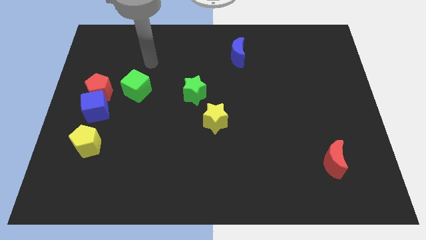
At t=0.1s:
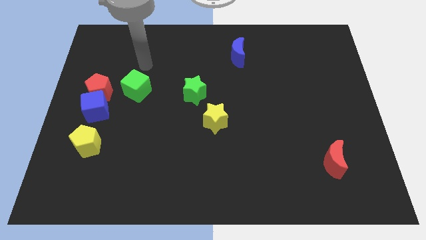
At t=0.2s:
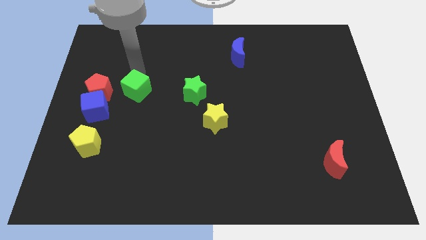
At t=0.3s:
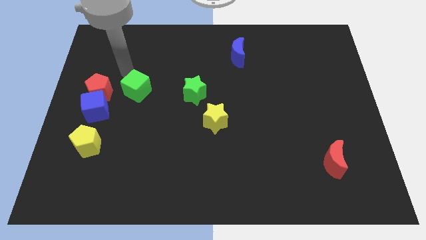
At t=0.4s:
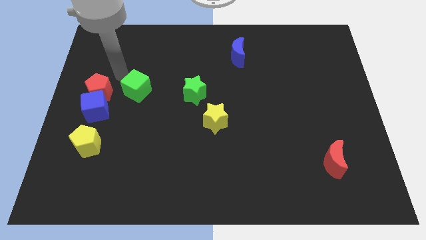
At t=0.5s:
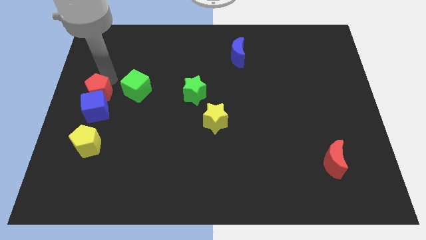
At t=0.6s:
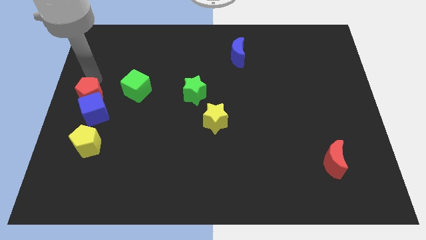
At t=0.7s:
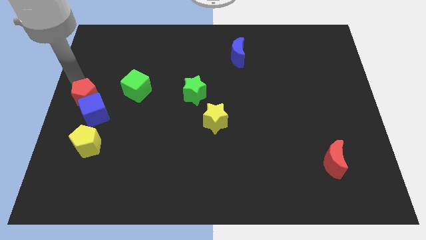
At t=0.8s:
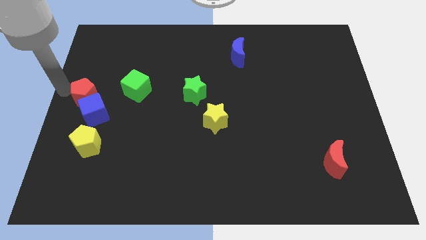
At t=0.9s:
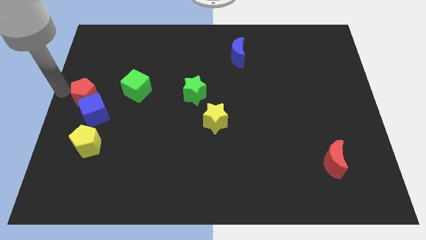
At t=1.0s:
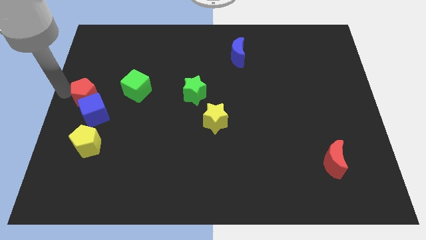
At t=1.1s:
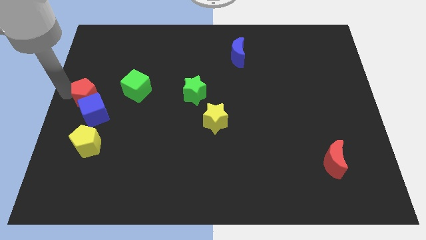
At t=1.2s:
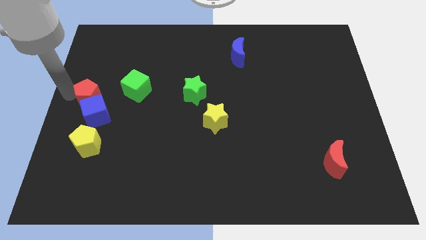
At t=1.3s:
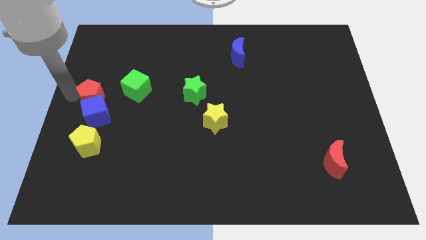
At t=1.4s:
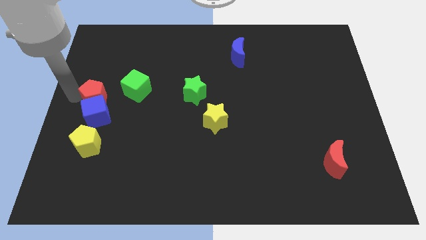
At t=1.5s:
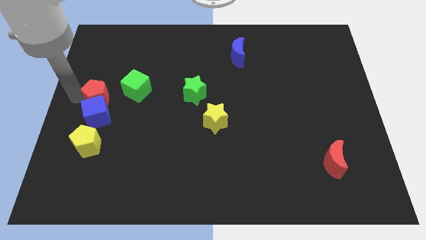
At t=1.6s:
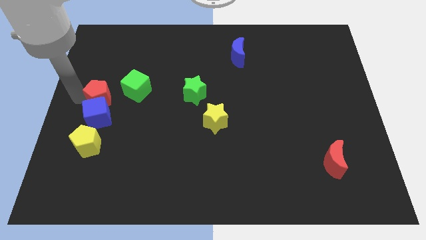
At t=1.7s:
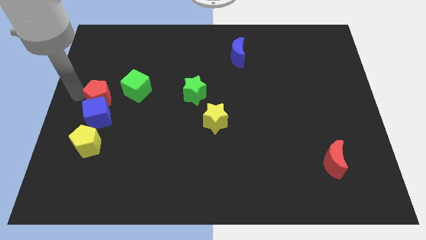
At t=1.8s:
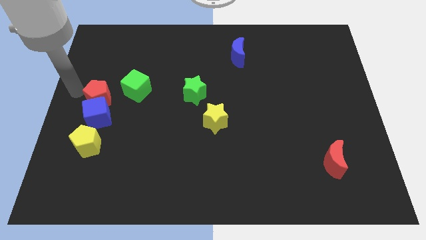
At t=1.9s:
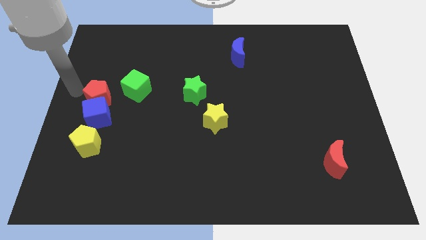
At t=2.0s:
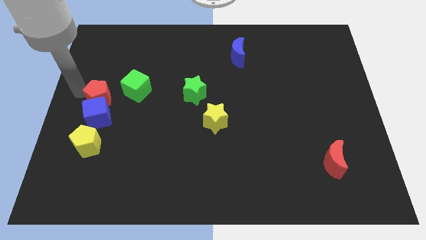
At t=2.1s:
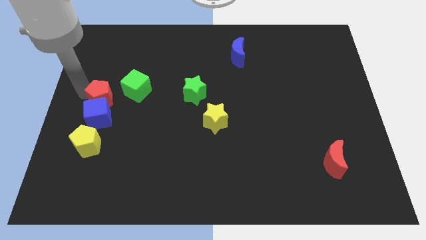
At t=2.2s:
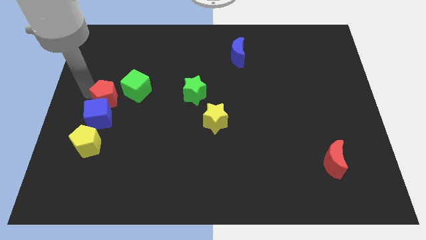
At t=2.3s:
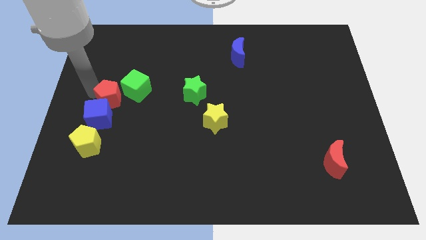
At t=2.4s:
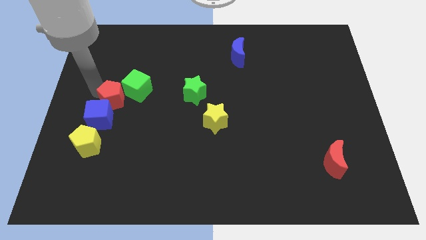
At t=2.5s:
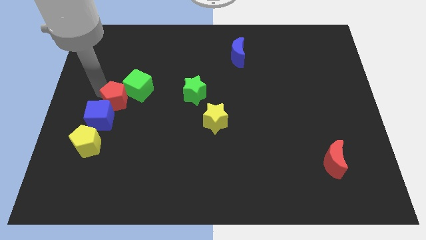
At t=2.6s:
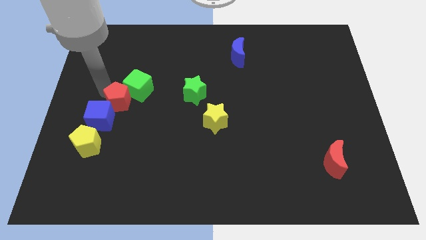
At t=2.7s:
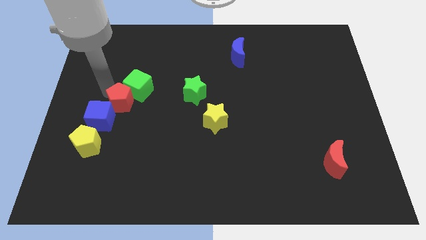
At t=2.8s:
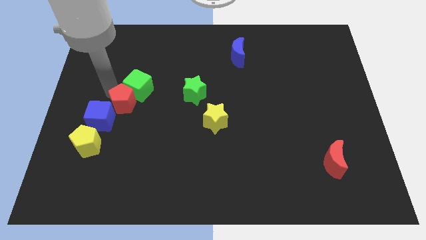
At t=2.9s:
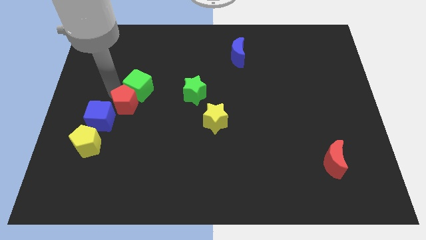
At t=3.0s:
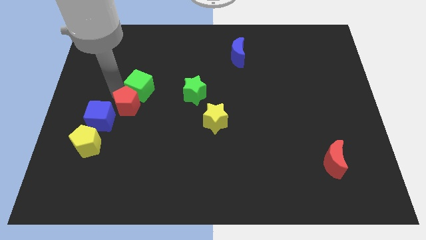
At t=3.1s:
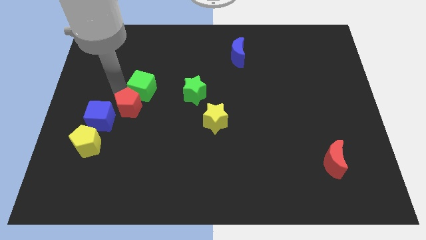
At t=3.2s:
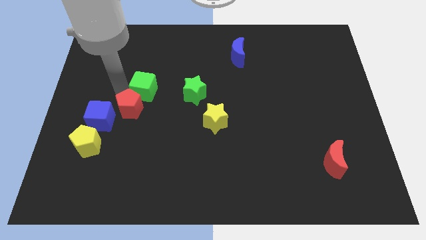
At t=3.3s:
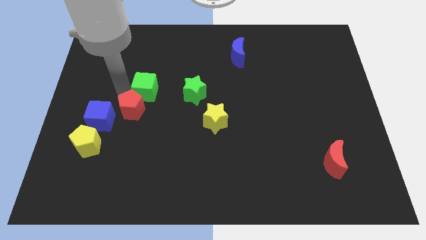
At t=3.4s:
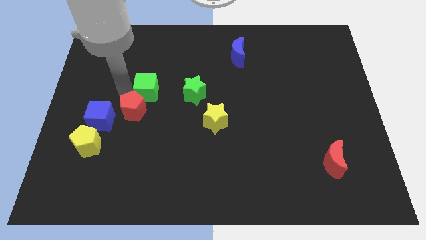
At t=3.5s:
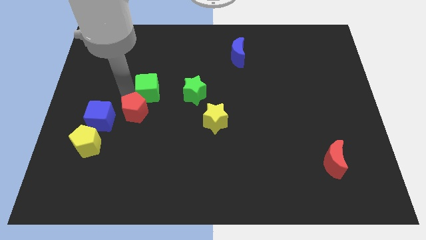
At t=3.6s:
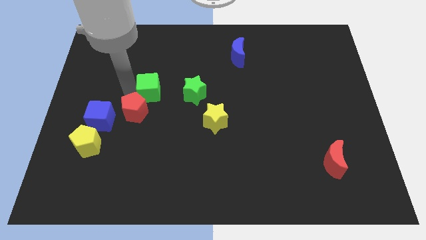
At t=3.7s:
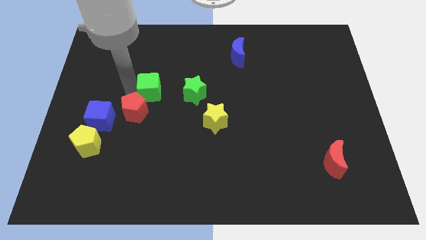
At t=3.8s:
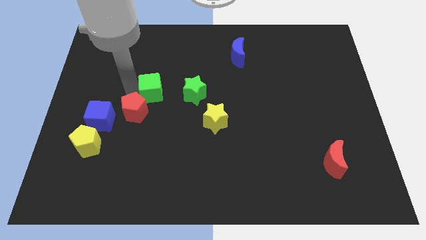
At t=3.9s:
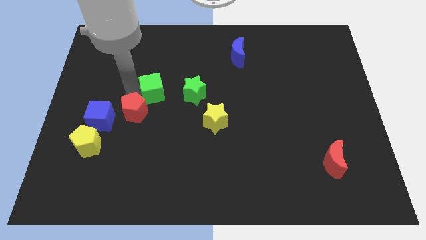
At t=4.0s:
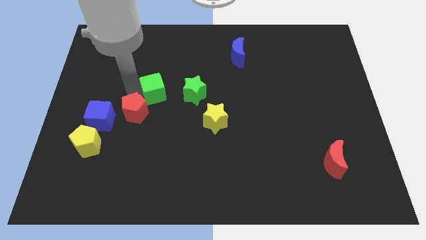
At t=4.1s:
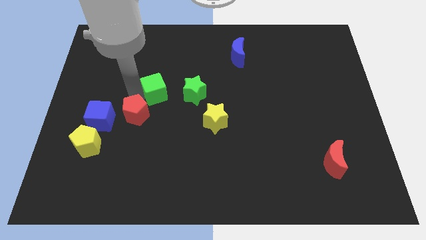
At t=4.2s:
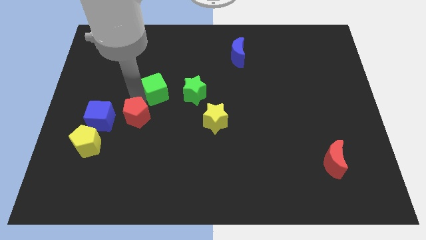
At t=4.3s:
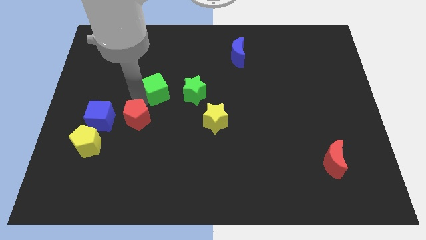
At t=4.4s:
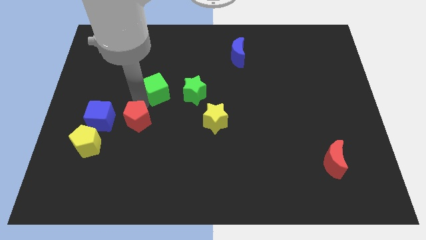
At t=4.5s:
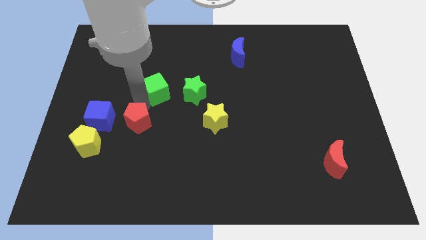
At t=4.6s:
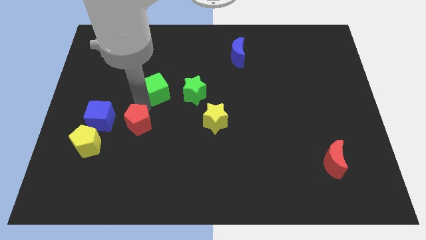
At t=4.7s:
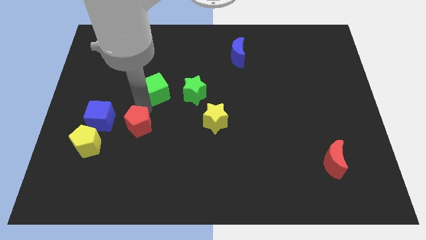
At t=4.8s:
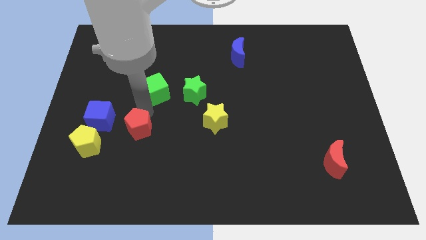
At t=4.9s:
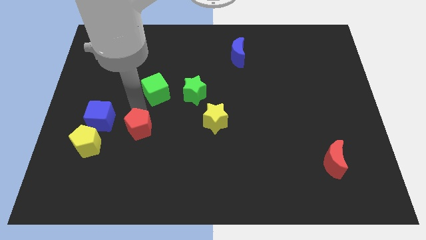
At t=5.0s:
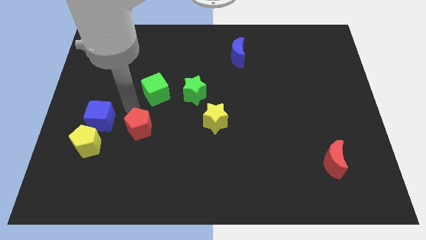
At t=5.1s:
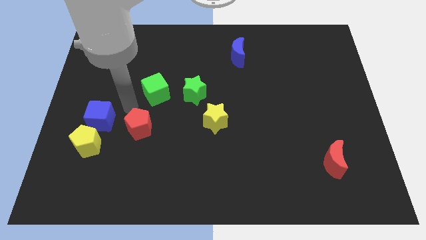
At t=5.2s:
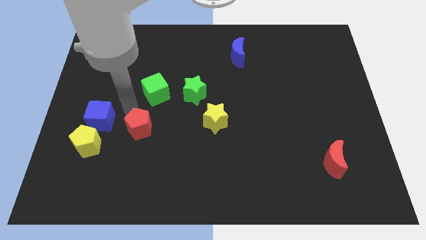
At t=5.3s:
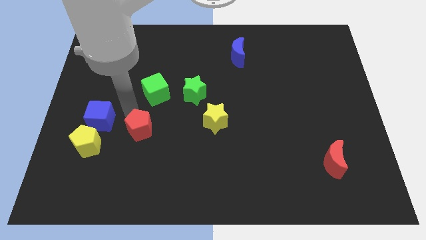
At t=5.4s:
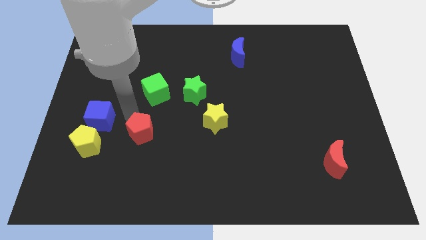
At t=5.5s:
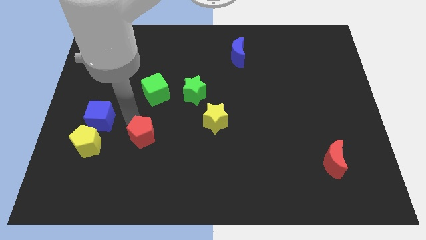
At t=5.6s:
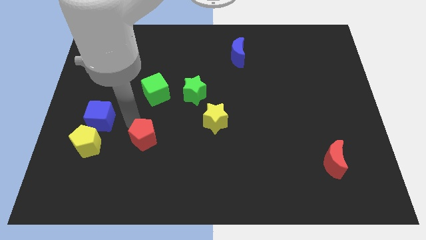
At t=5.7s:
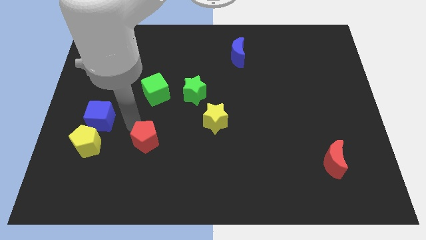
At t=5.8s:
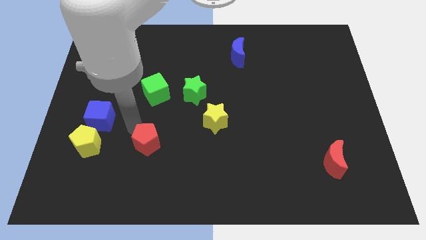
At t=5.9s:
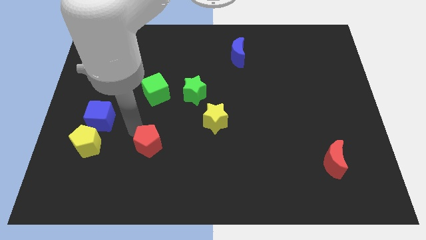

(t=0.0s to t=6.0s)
slide the red pentagon down and then to the right

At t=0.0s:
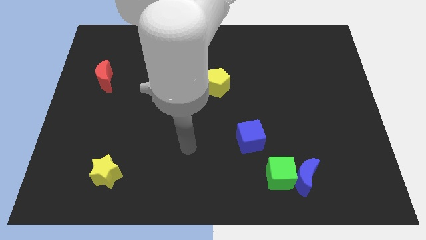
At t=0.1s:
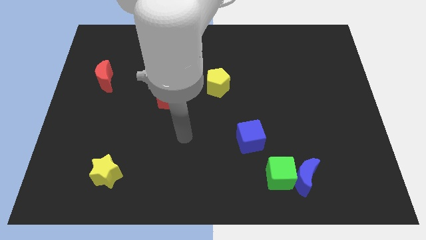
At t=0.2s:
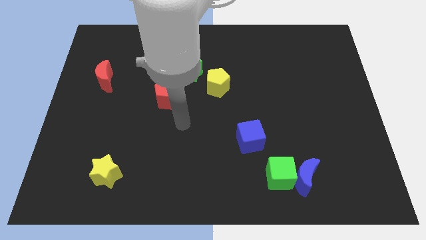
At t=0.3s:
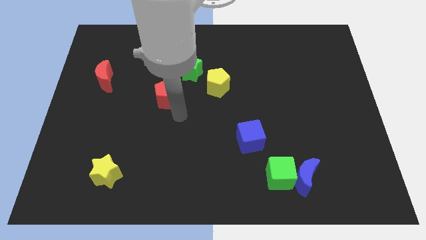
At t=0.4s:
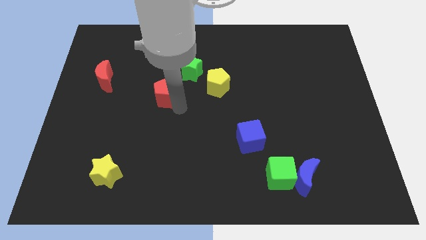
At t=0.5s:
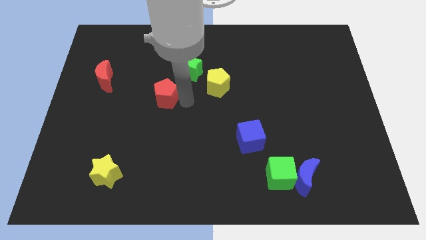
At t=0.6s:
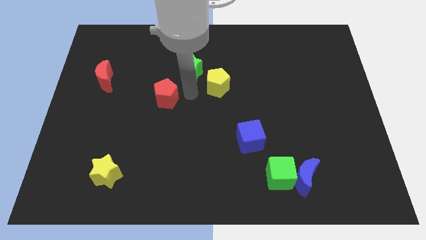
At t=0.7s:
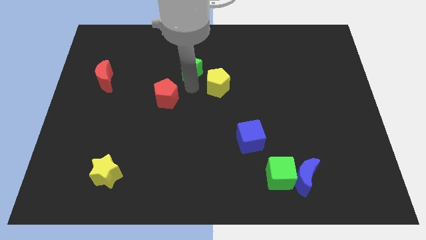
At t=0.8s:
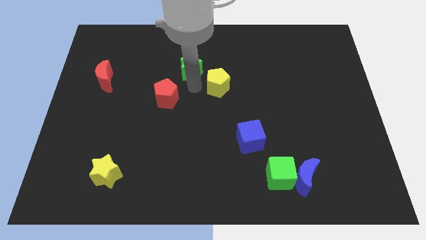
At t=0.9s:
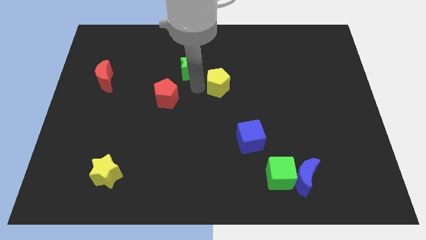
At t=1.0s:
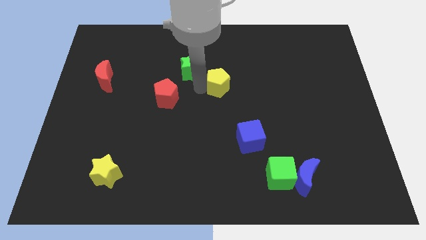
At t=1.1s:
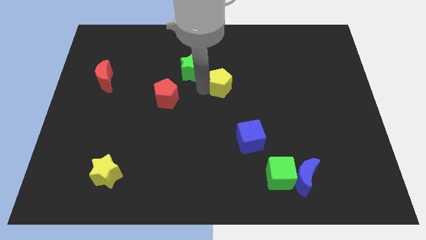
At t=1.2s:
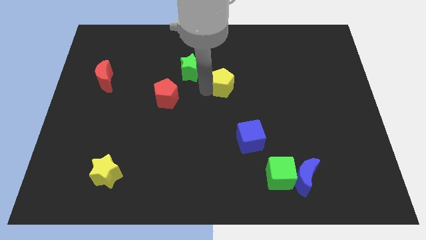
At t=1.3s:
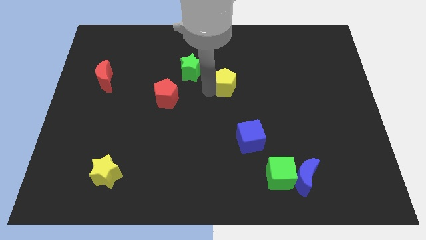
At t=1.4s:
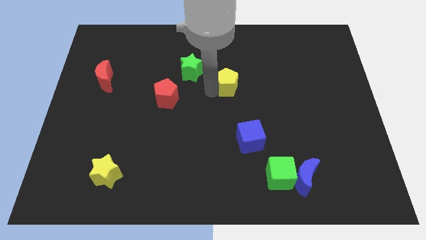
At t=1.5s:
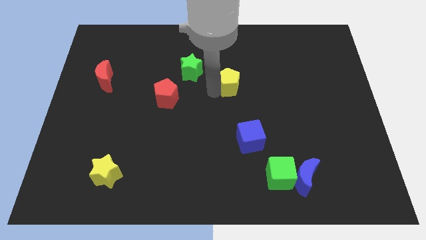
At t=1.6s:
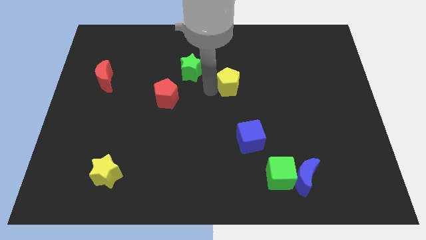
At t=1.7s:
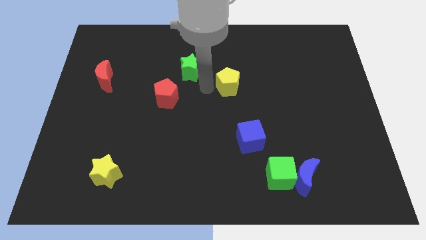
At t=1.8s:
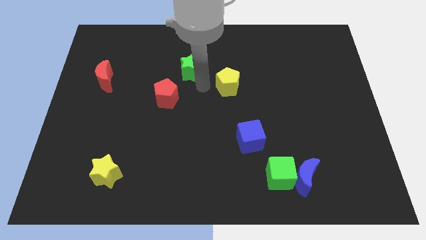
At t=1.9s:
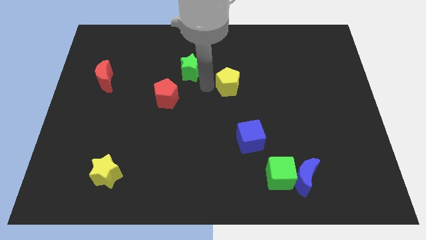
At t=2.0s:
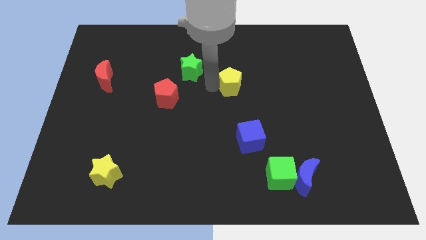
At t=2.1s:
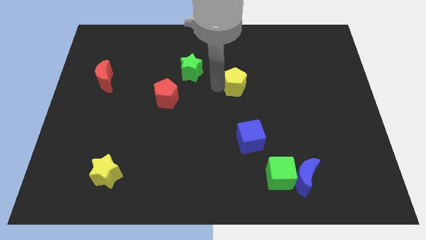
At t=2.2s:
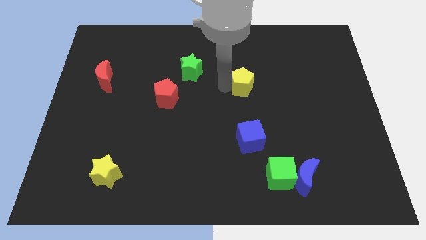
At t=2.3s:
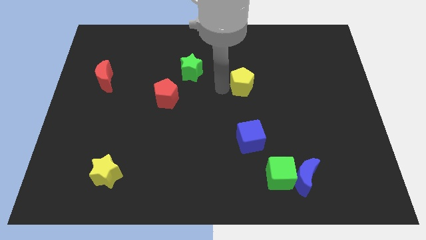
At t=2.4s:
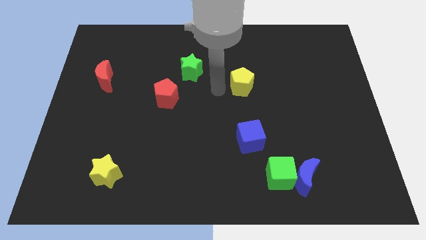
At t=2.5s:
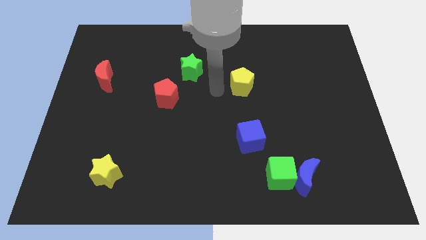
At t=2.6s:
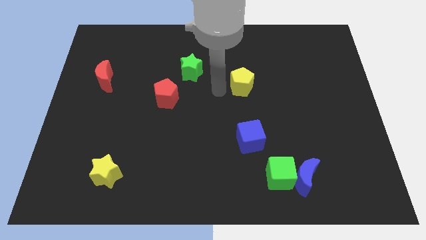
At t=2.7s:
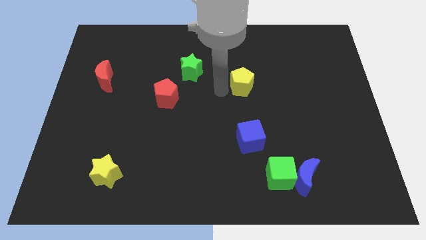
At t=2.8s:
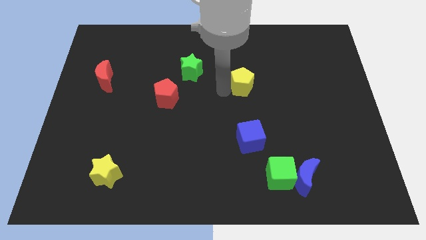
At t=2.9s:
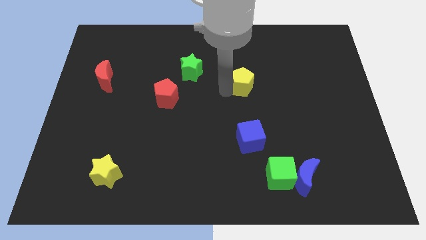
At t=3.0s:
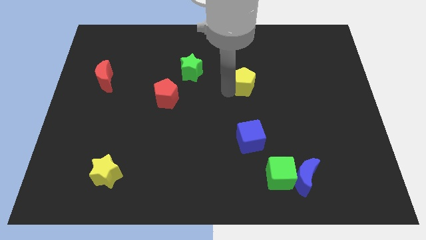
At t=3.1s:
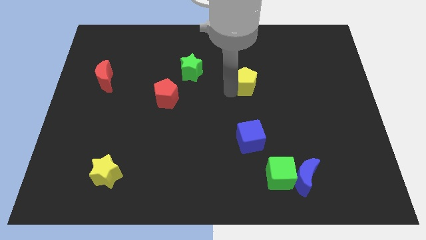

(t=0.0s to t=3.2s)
move the yellow pentagon right a little bit
